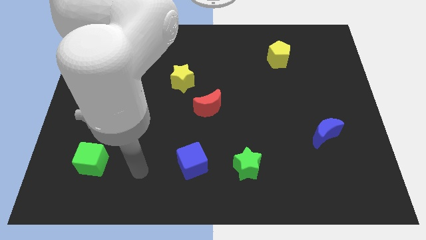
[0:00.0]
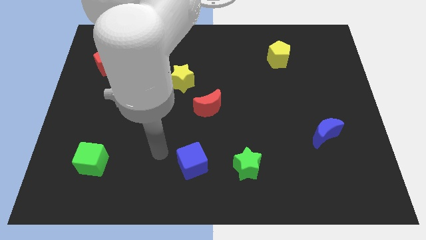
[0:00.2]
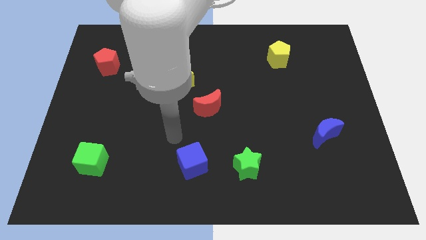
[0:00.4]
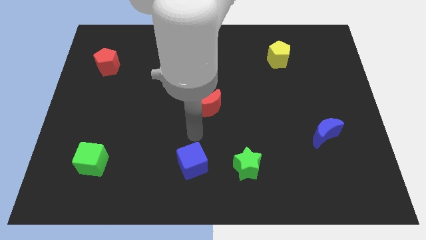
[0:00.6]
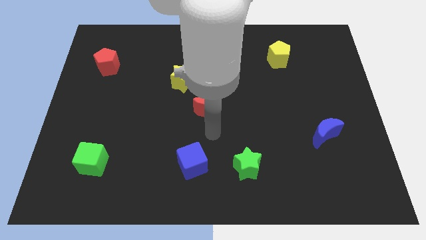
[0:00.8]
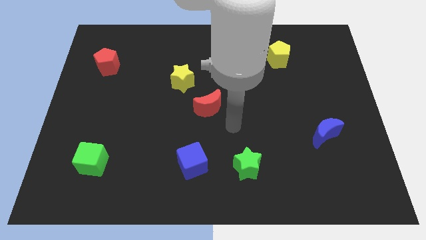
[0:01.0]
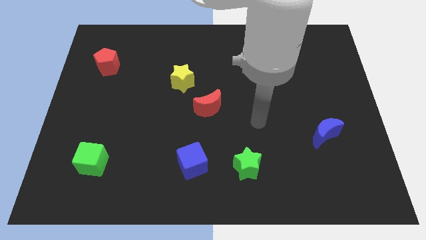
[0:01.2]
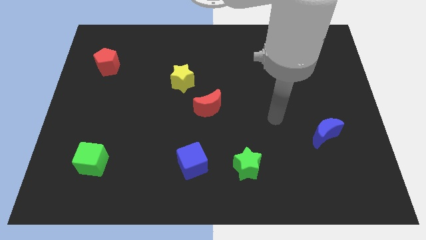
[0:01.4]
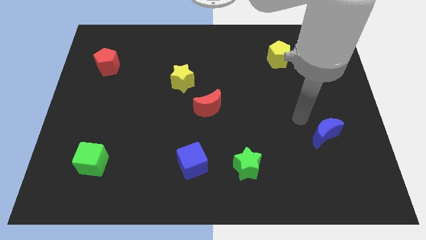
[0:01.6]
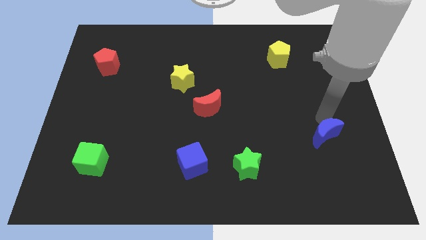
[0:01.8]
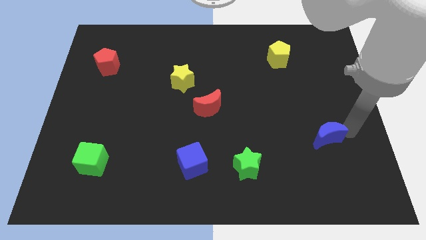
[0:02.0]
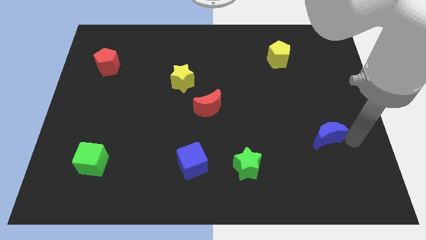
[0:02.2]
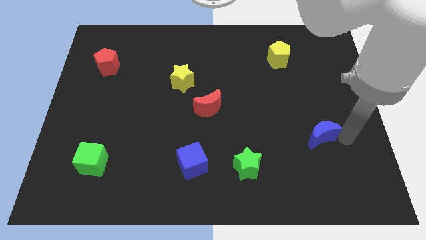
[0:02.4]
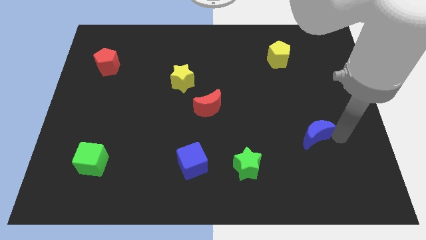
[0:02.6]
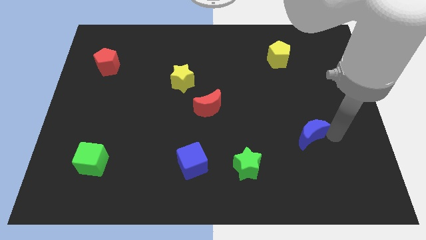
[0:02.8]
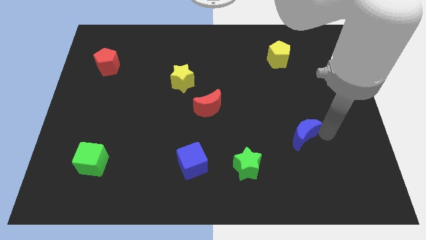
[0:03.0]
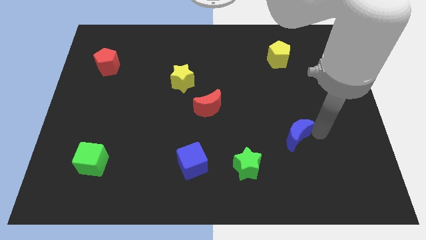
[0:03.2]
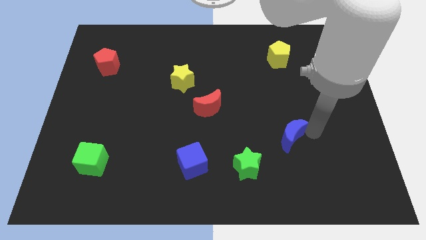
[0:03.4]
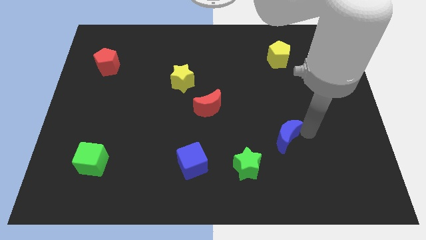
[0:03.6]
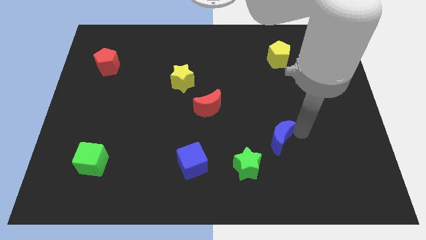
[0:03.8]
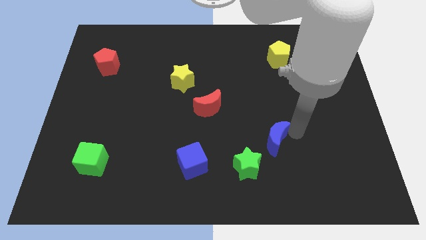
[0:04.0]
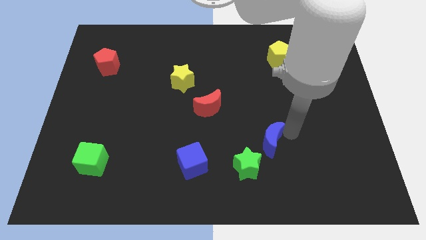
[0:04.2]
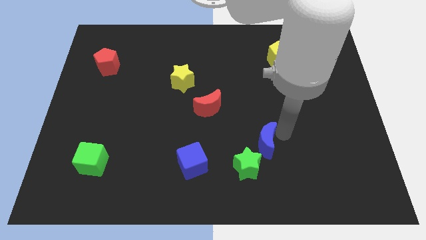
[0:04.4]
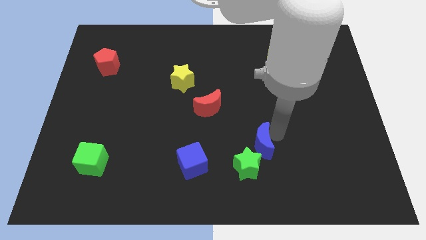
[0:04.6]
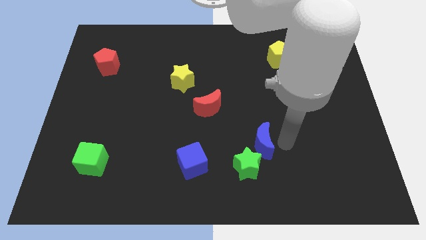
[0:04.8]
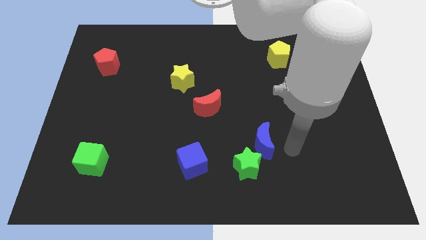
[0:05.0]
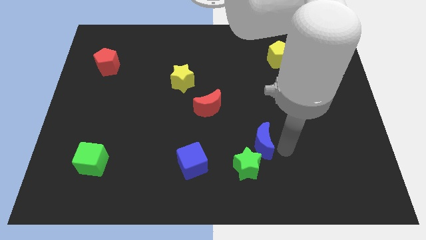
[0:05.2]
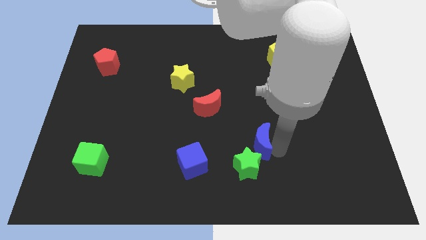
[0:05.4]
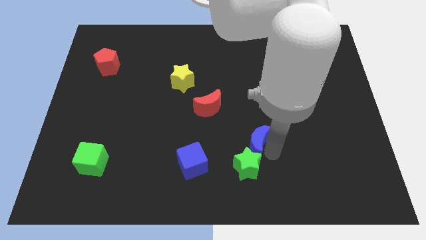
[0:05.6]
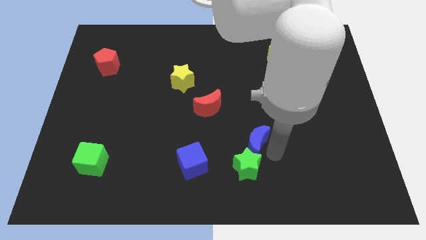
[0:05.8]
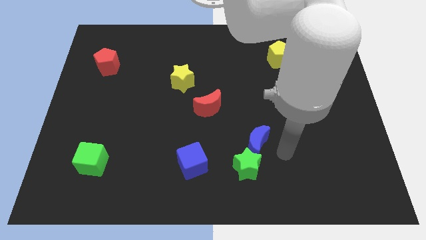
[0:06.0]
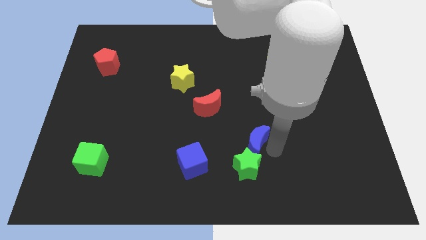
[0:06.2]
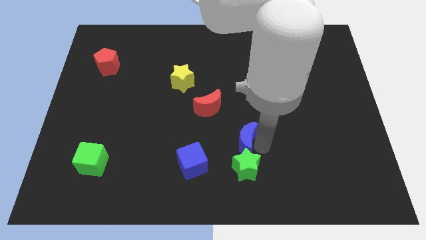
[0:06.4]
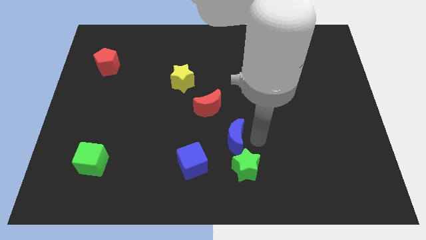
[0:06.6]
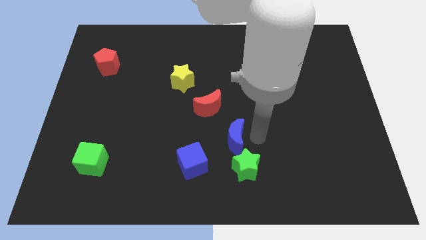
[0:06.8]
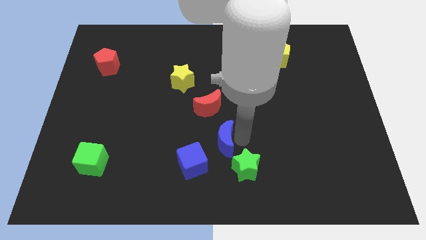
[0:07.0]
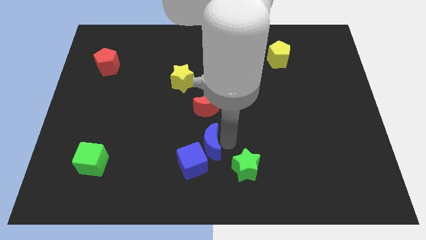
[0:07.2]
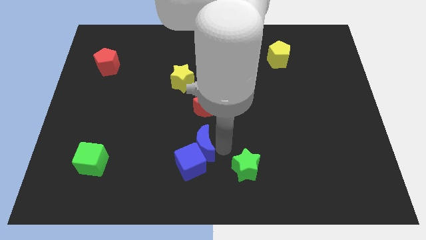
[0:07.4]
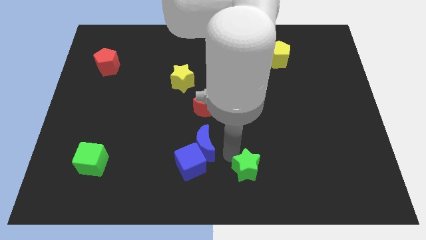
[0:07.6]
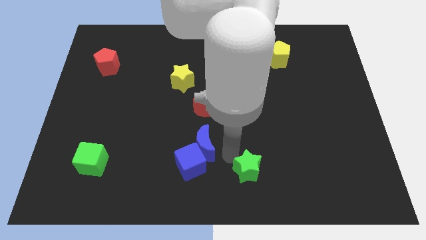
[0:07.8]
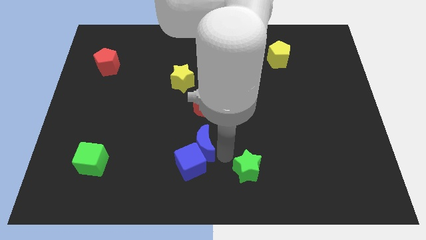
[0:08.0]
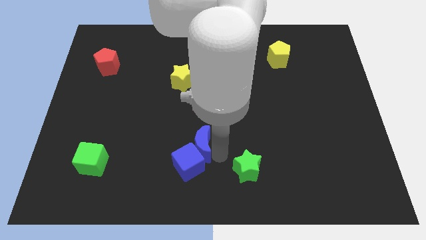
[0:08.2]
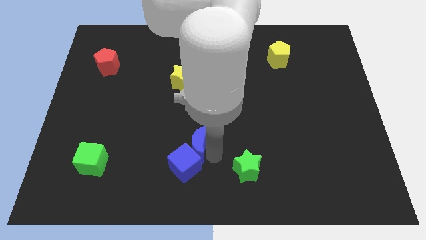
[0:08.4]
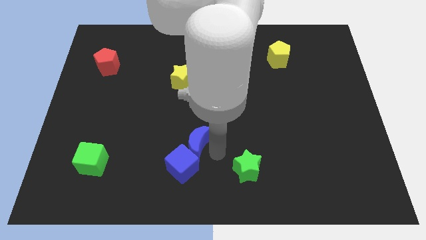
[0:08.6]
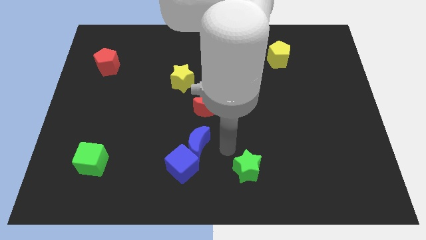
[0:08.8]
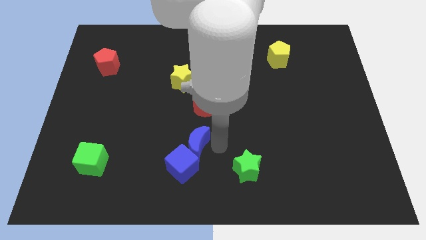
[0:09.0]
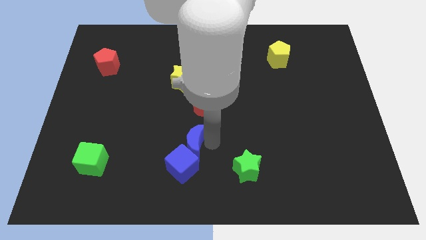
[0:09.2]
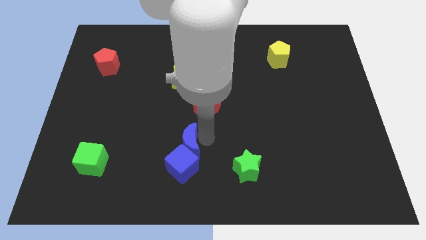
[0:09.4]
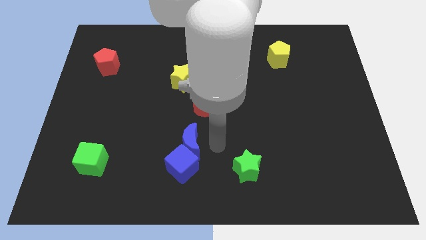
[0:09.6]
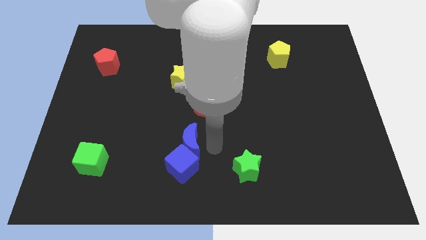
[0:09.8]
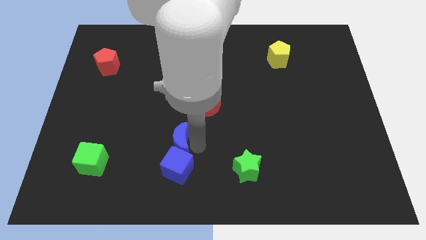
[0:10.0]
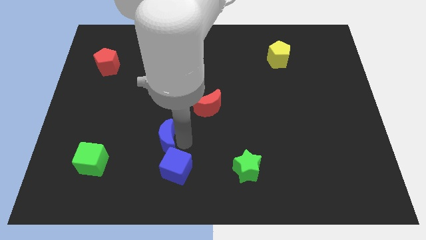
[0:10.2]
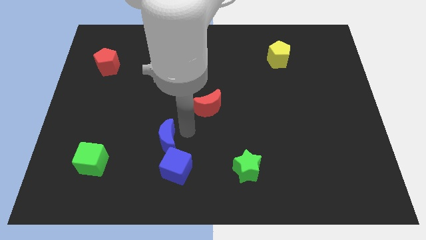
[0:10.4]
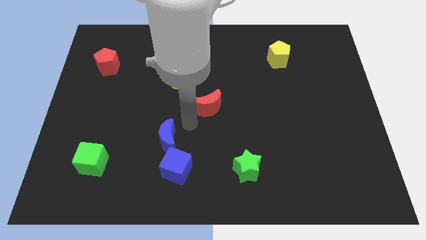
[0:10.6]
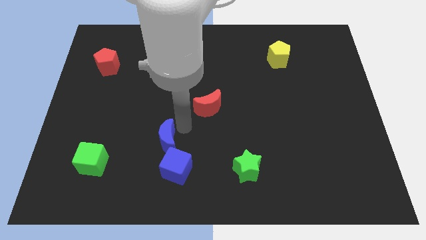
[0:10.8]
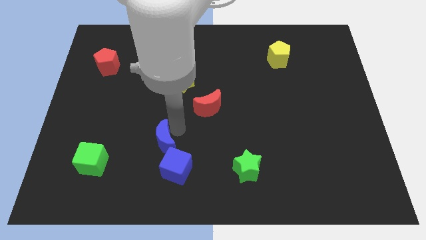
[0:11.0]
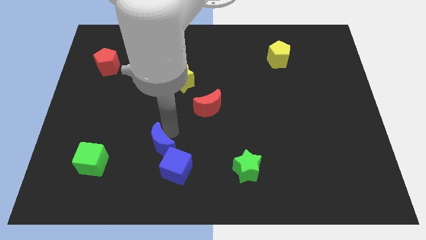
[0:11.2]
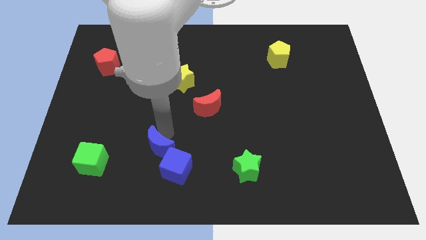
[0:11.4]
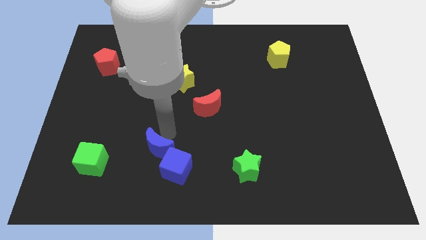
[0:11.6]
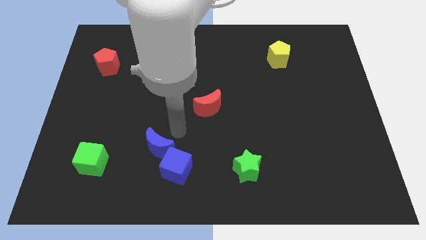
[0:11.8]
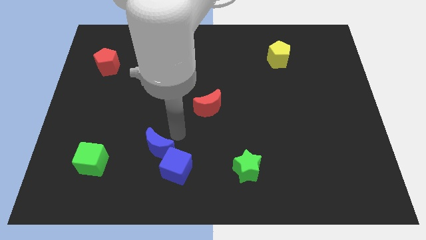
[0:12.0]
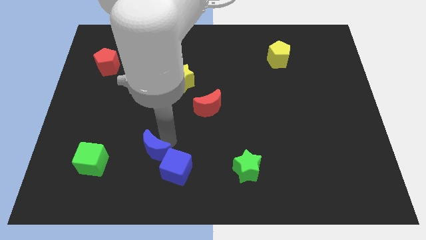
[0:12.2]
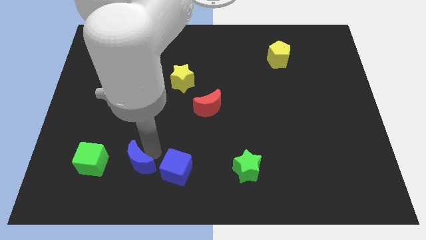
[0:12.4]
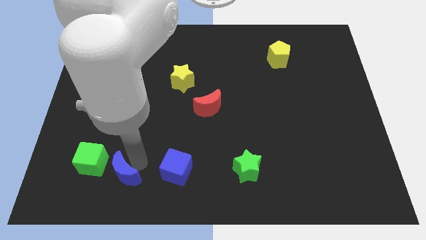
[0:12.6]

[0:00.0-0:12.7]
put the blue moon to the bottom right side of the green cube

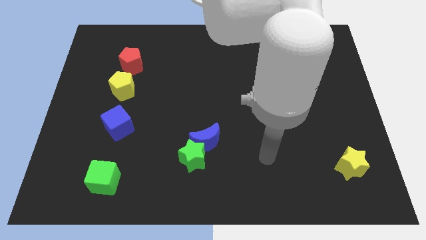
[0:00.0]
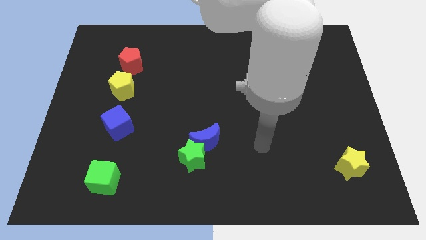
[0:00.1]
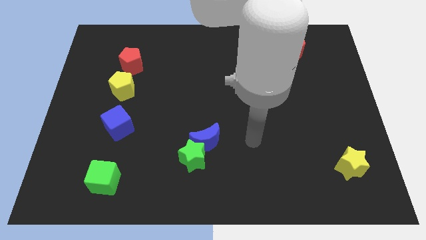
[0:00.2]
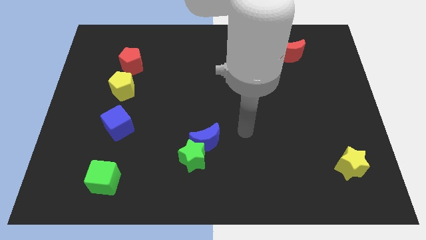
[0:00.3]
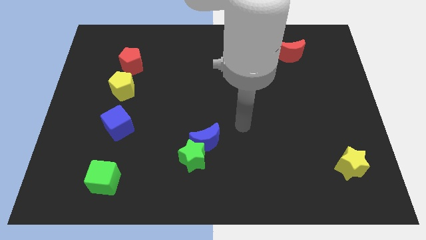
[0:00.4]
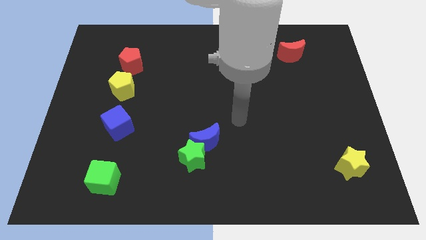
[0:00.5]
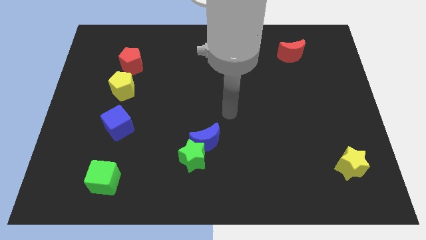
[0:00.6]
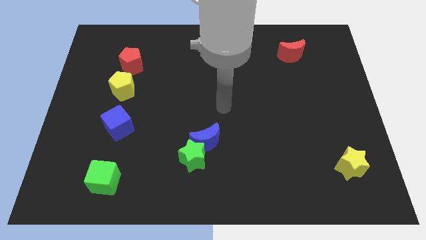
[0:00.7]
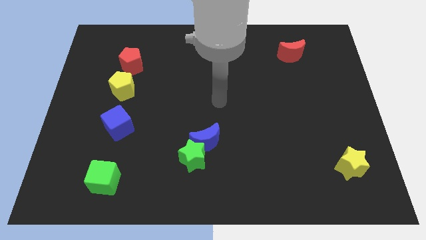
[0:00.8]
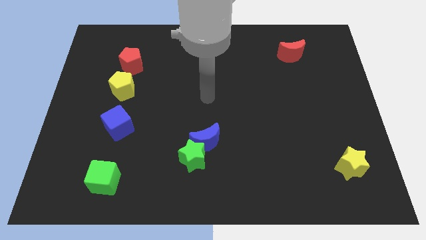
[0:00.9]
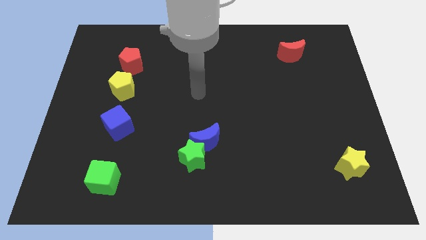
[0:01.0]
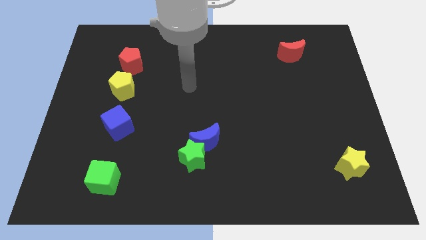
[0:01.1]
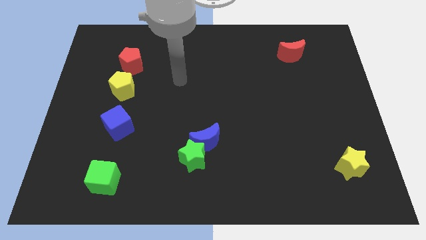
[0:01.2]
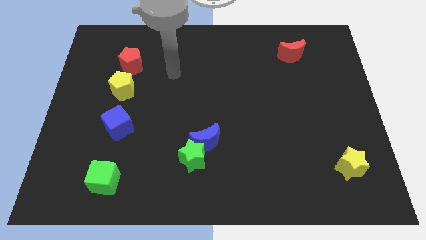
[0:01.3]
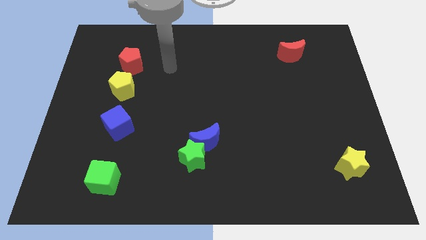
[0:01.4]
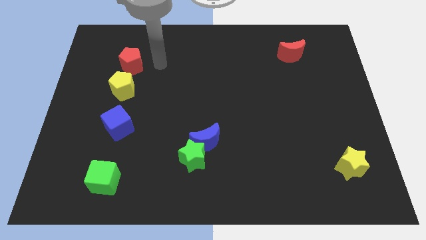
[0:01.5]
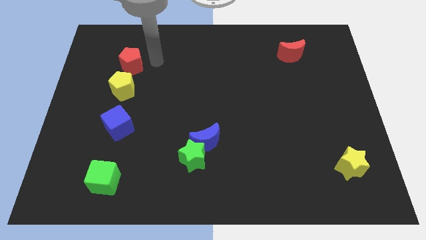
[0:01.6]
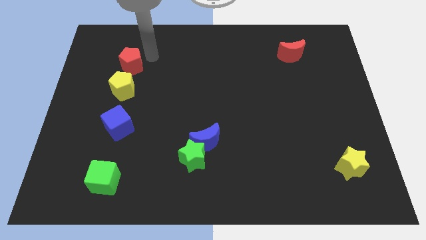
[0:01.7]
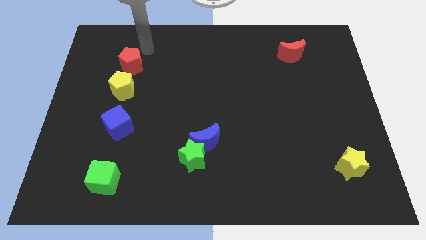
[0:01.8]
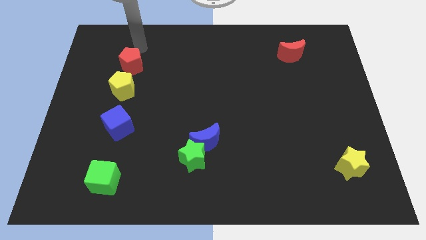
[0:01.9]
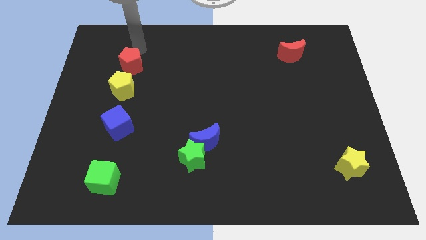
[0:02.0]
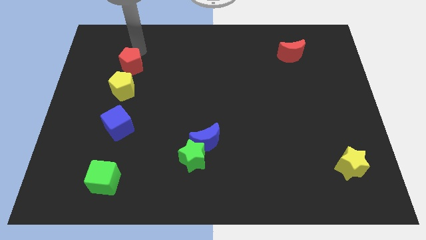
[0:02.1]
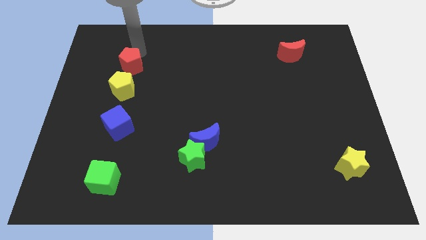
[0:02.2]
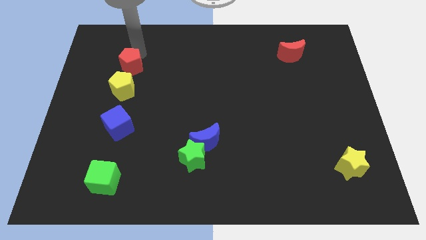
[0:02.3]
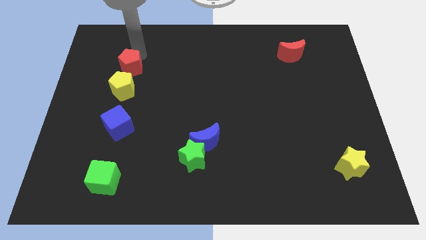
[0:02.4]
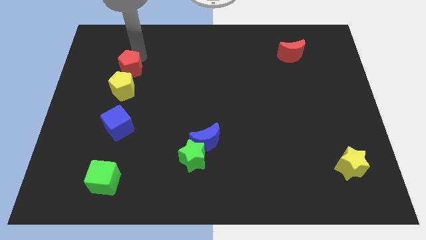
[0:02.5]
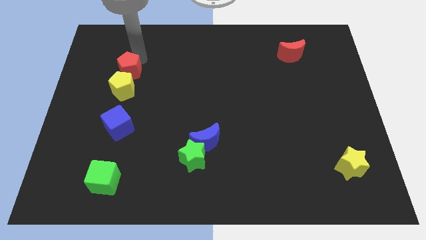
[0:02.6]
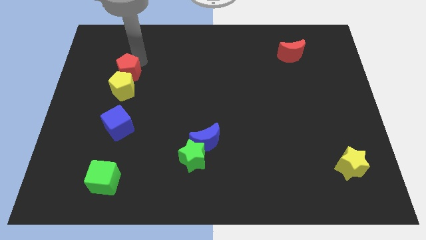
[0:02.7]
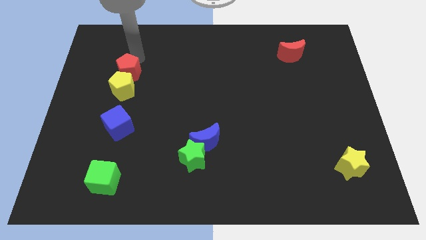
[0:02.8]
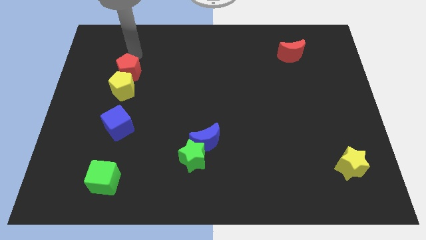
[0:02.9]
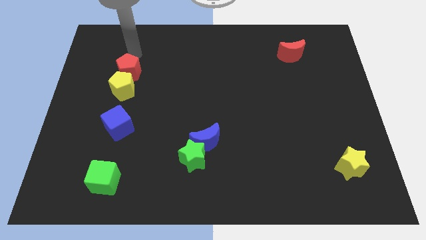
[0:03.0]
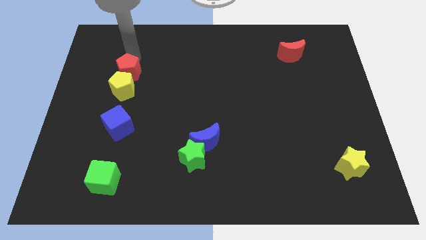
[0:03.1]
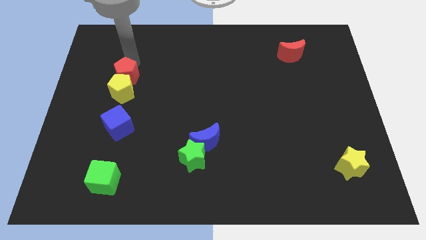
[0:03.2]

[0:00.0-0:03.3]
slide the red pentagon to the top of the blue cube
